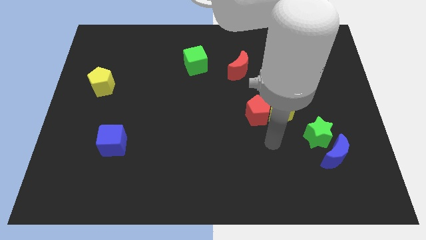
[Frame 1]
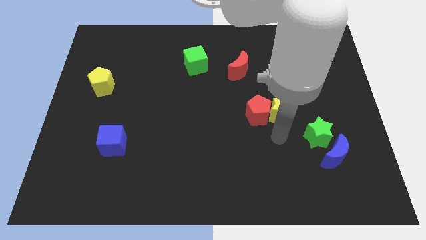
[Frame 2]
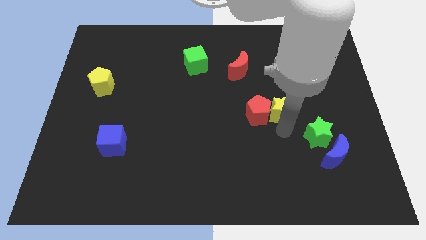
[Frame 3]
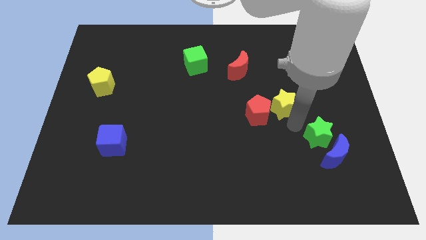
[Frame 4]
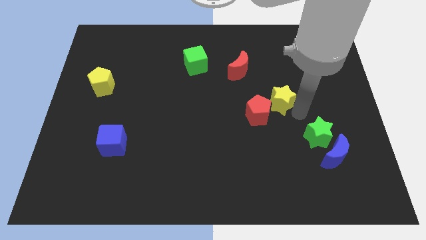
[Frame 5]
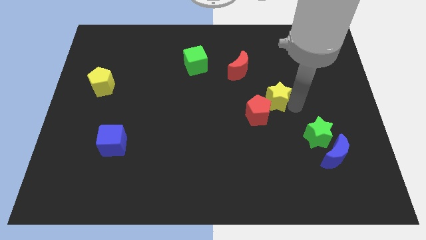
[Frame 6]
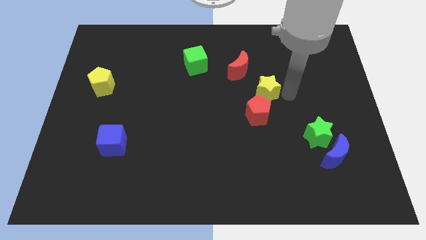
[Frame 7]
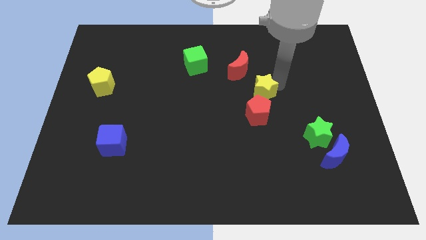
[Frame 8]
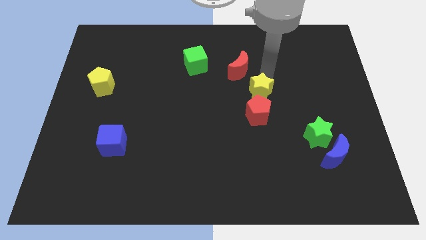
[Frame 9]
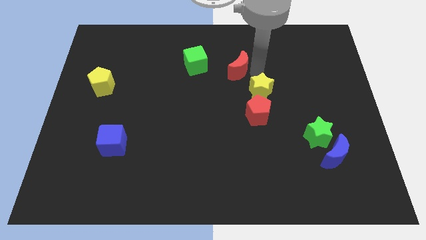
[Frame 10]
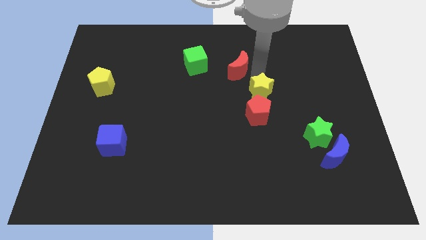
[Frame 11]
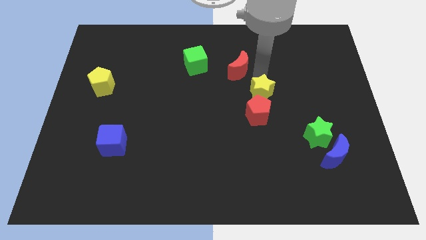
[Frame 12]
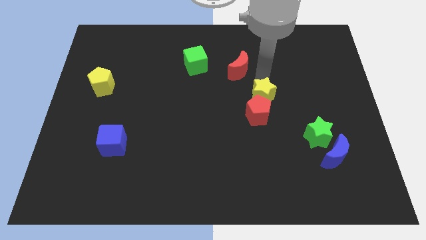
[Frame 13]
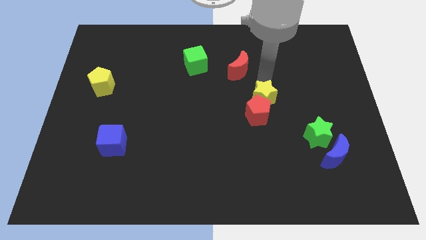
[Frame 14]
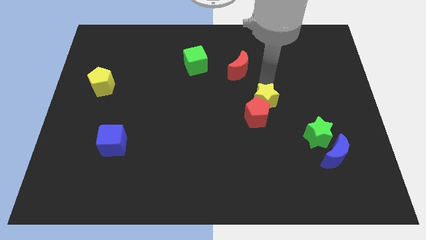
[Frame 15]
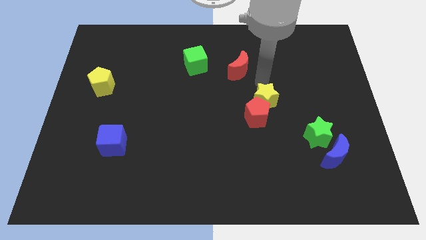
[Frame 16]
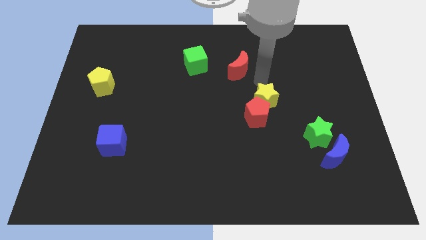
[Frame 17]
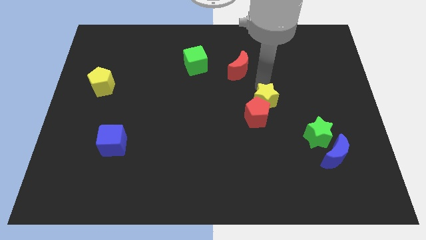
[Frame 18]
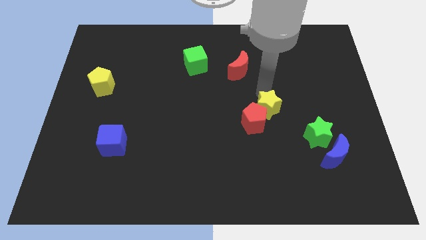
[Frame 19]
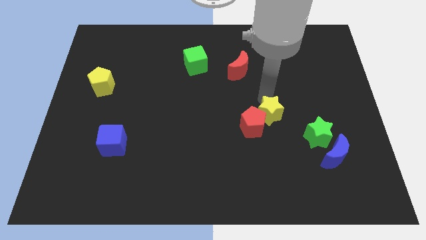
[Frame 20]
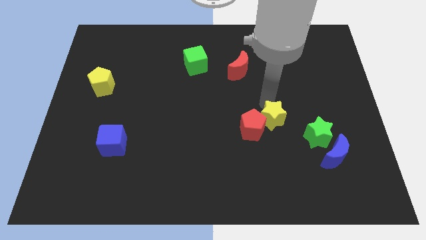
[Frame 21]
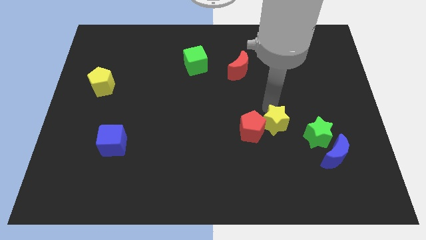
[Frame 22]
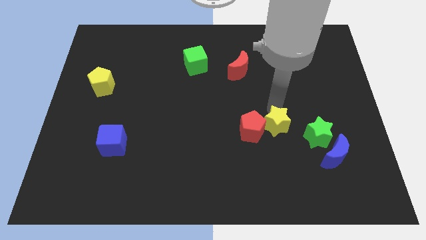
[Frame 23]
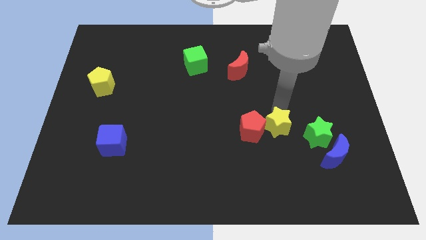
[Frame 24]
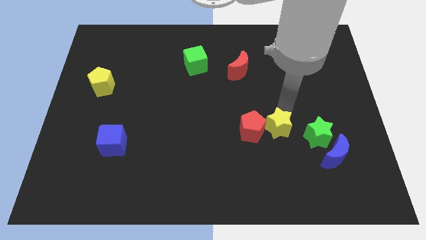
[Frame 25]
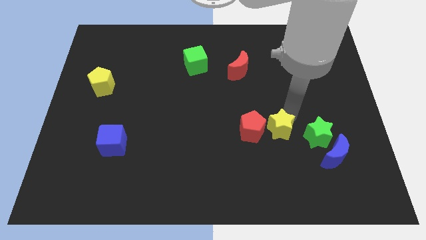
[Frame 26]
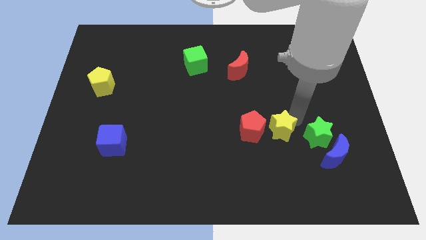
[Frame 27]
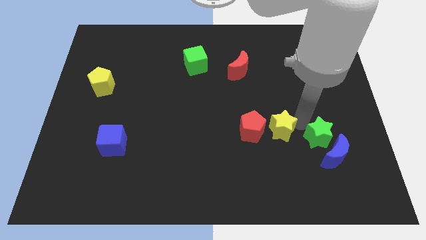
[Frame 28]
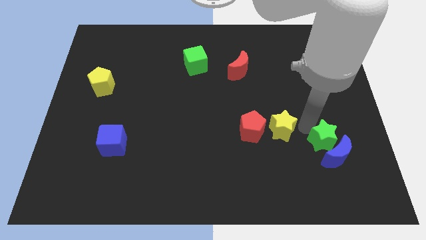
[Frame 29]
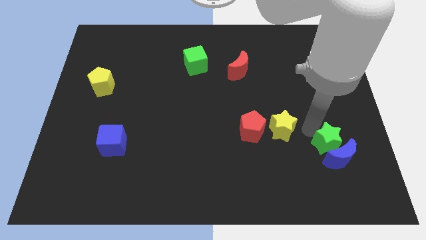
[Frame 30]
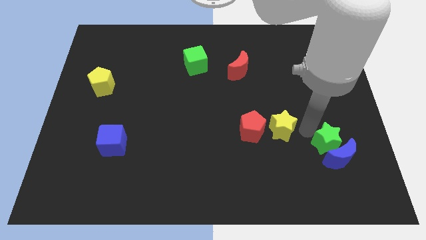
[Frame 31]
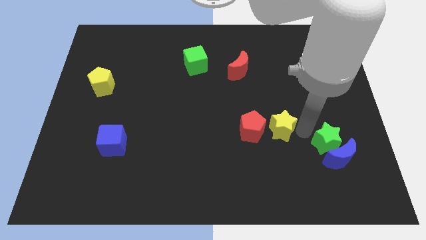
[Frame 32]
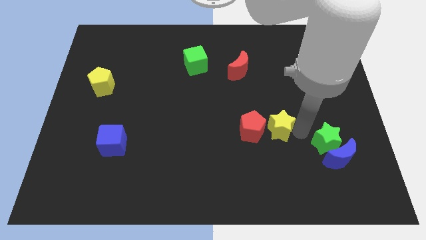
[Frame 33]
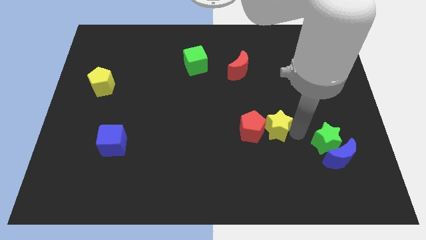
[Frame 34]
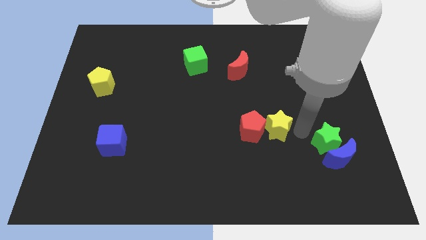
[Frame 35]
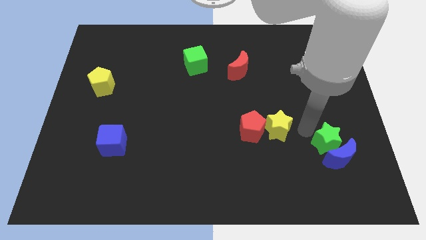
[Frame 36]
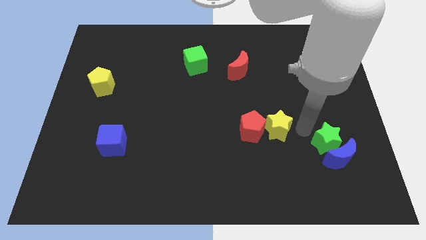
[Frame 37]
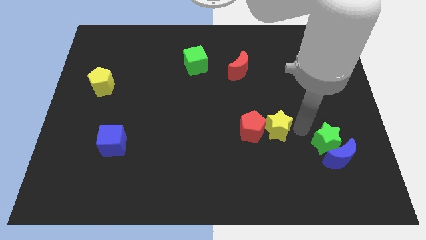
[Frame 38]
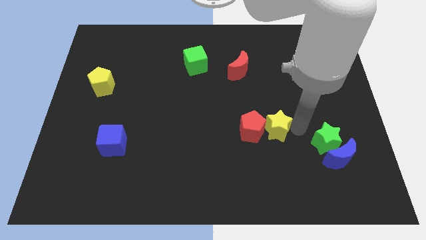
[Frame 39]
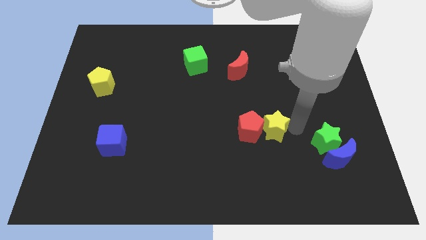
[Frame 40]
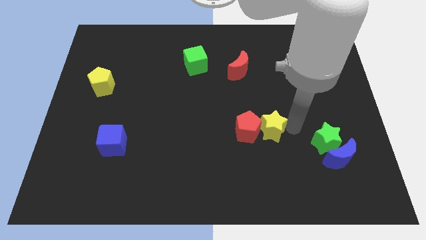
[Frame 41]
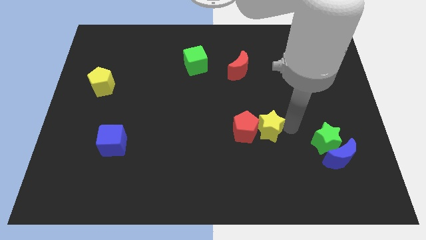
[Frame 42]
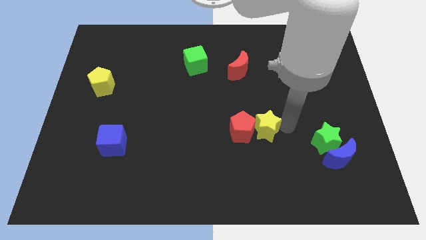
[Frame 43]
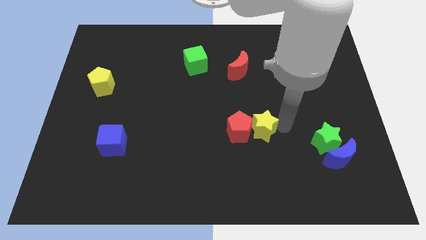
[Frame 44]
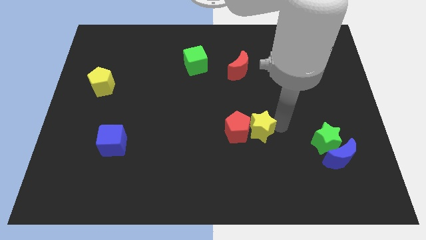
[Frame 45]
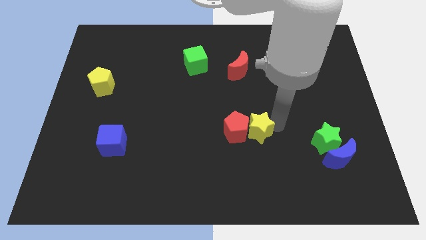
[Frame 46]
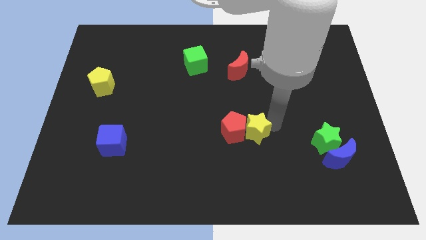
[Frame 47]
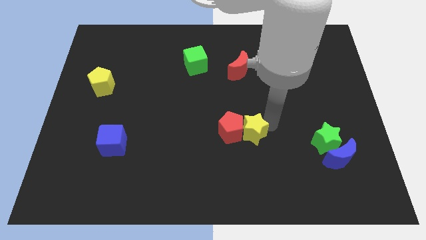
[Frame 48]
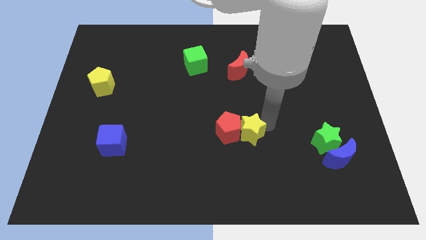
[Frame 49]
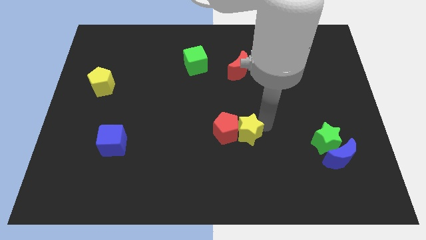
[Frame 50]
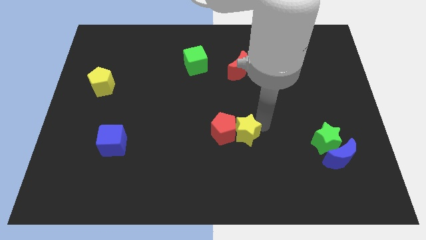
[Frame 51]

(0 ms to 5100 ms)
move the yellow star to the left a little bit

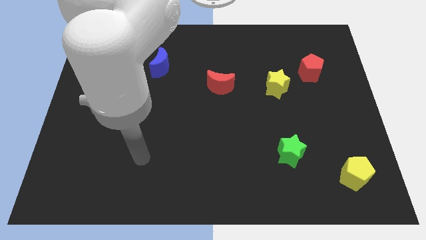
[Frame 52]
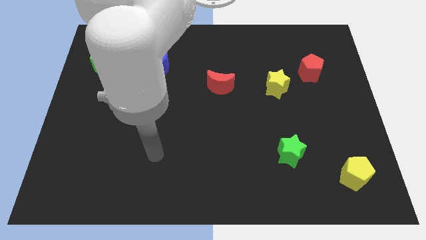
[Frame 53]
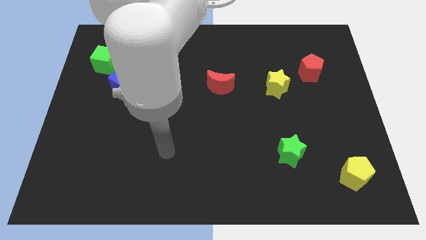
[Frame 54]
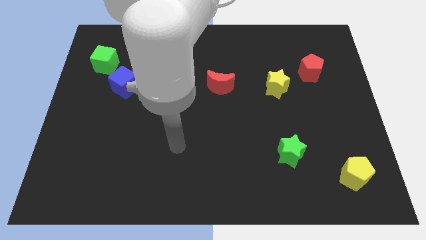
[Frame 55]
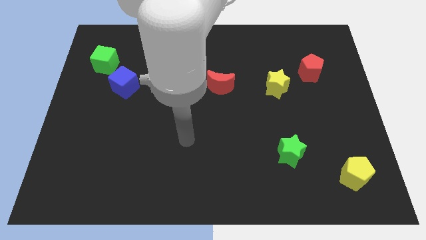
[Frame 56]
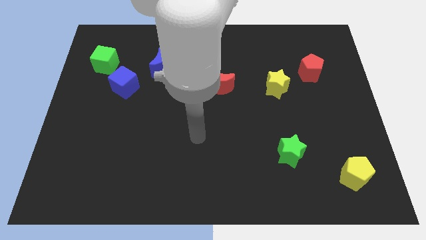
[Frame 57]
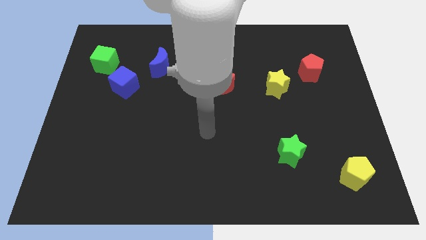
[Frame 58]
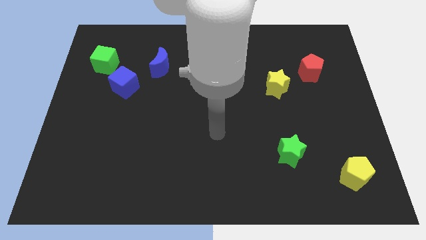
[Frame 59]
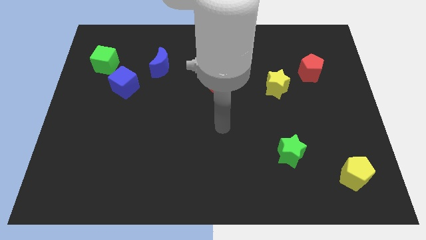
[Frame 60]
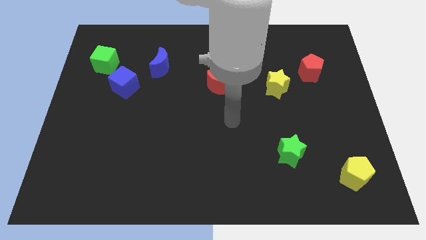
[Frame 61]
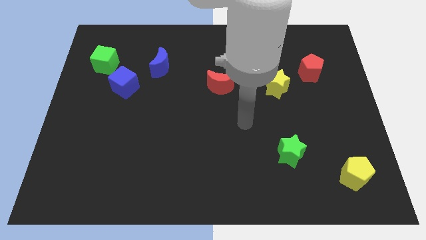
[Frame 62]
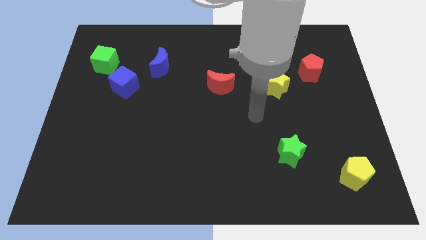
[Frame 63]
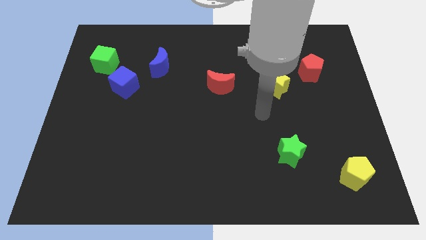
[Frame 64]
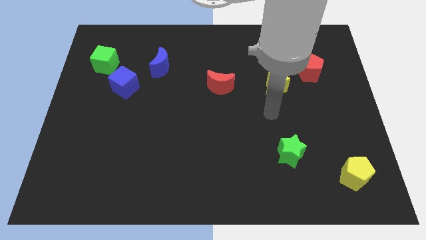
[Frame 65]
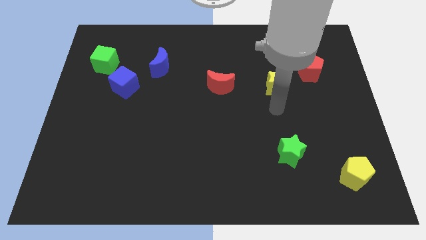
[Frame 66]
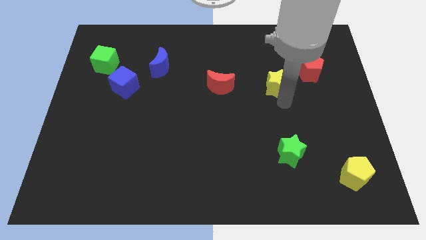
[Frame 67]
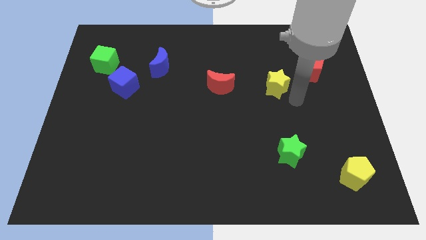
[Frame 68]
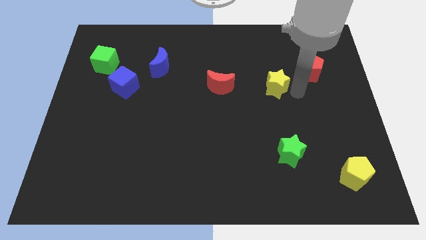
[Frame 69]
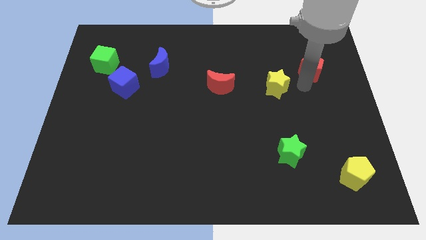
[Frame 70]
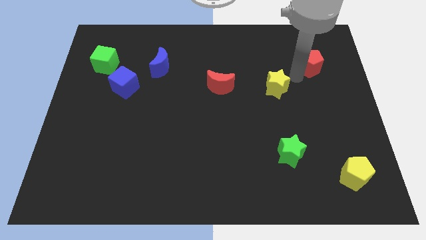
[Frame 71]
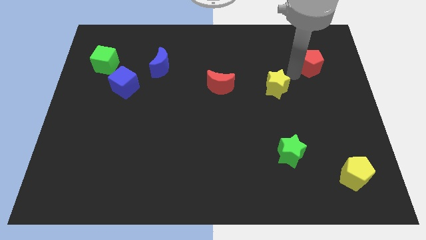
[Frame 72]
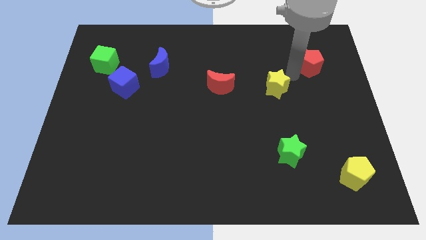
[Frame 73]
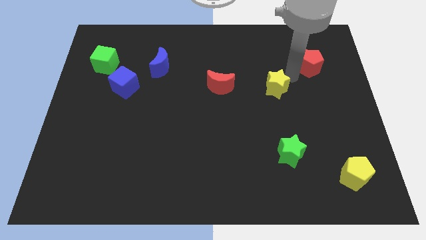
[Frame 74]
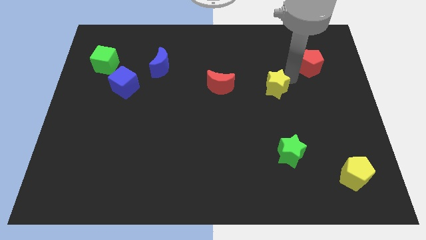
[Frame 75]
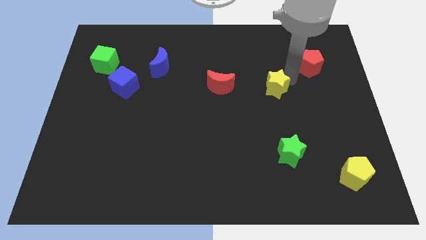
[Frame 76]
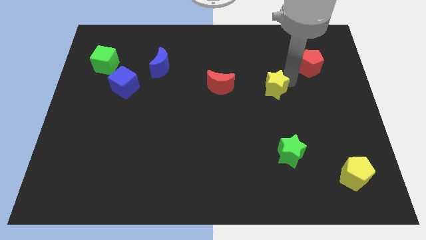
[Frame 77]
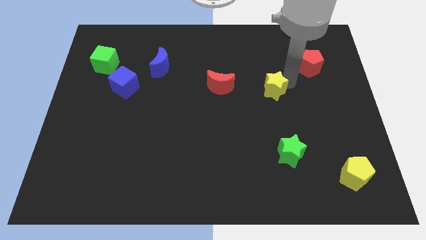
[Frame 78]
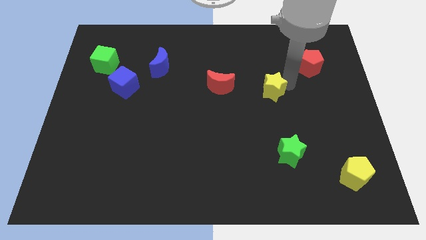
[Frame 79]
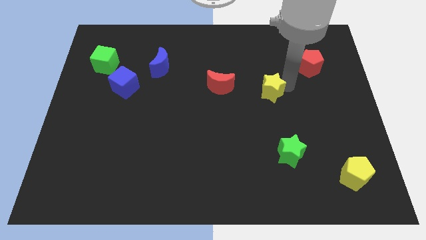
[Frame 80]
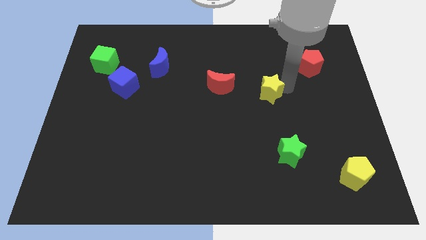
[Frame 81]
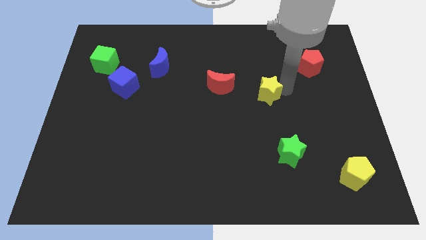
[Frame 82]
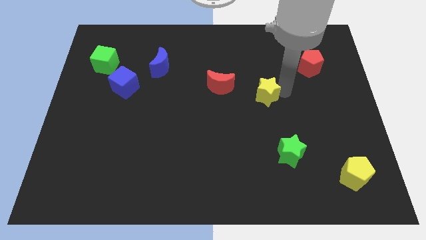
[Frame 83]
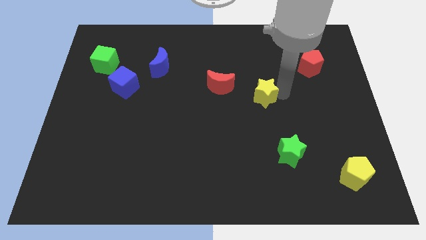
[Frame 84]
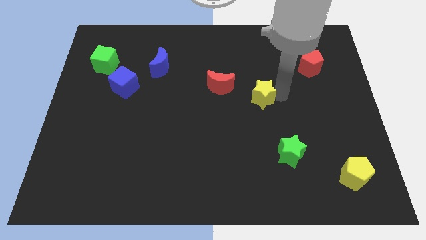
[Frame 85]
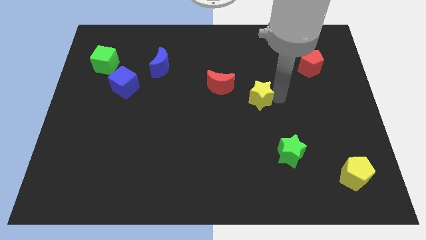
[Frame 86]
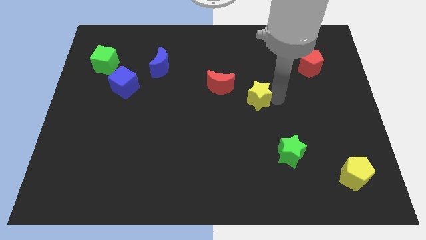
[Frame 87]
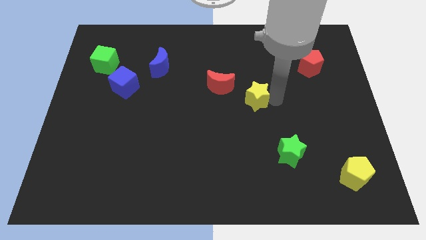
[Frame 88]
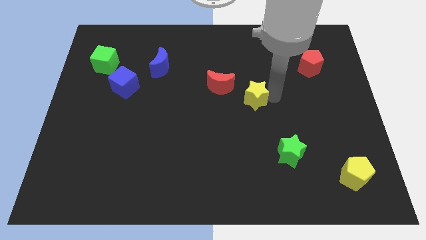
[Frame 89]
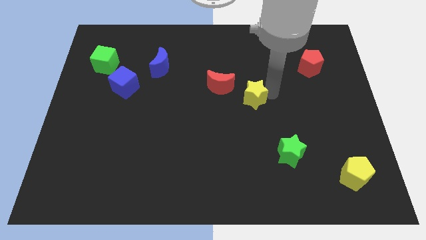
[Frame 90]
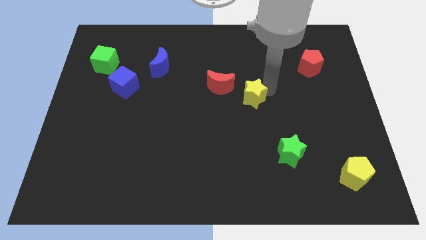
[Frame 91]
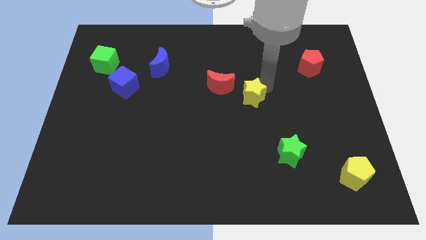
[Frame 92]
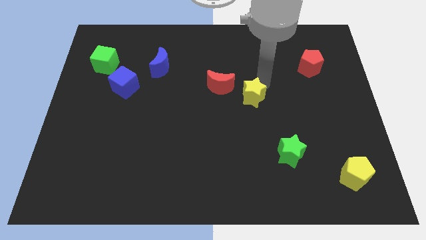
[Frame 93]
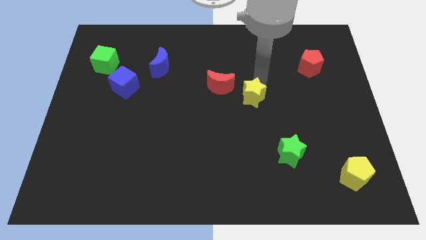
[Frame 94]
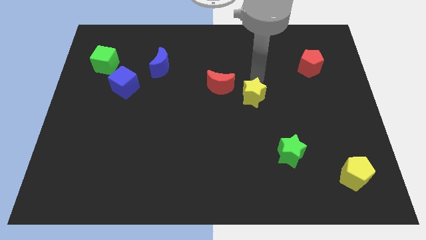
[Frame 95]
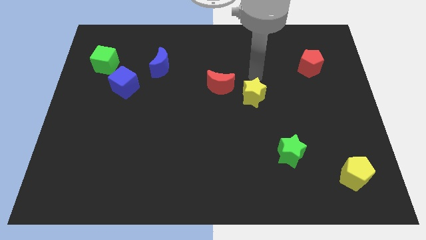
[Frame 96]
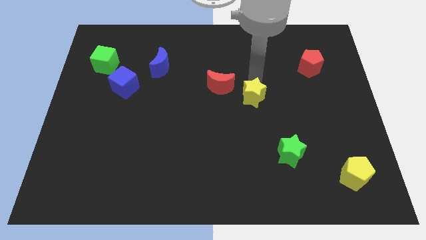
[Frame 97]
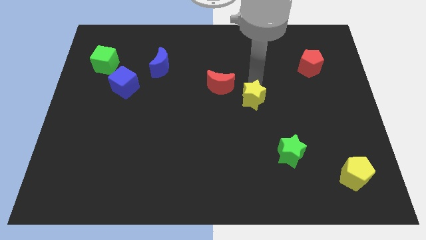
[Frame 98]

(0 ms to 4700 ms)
push the yellow star diagonally down and to the left a bit
